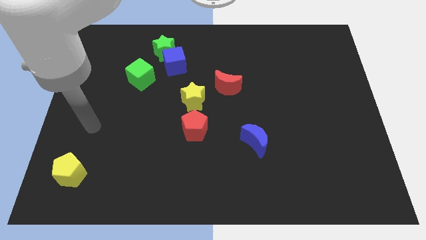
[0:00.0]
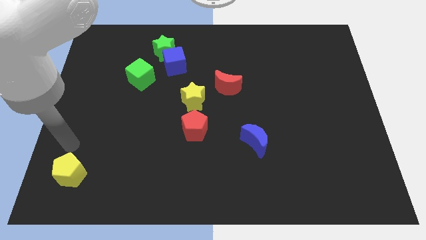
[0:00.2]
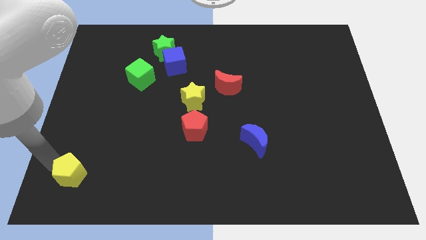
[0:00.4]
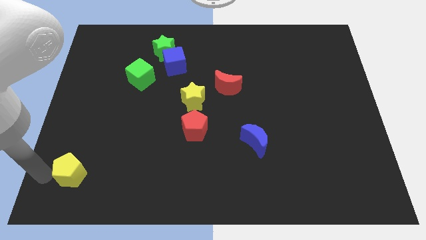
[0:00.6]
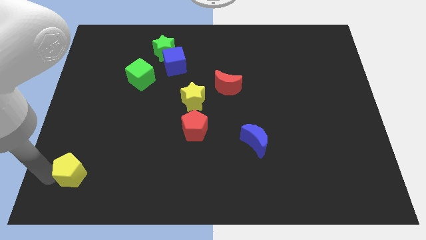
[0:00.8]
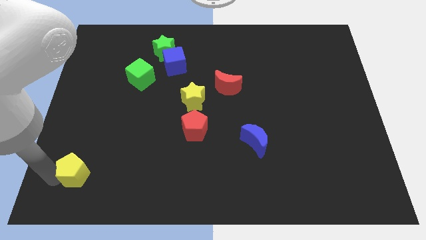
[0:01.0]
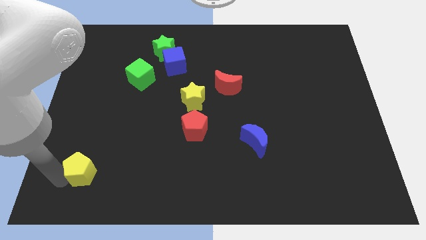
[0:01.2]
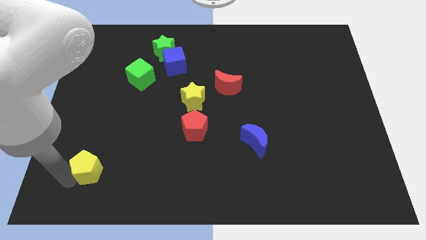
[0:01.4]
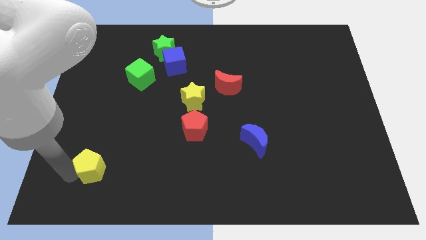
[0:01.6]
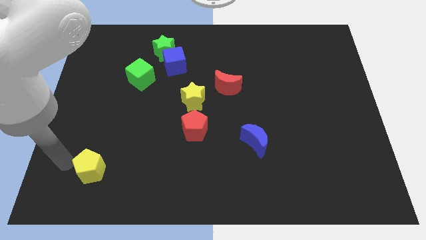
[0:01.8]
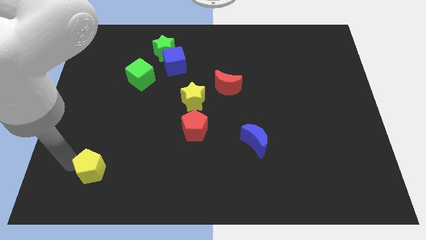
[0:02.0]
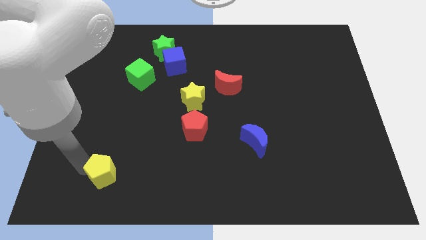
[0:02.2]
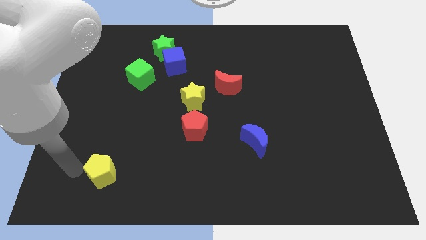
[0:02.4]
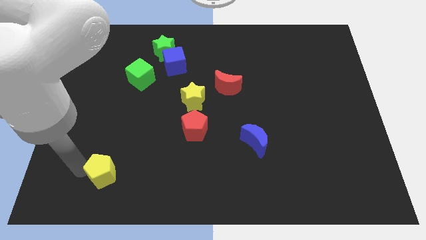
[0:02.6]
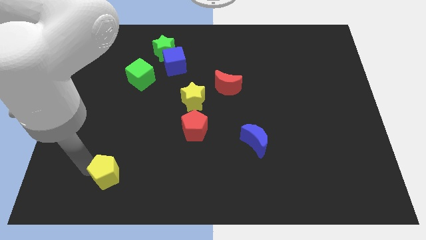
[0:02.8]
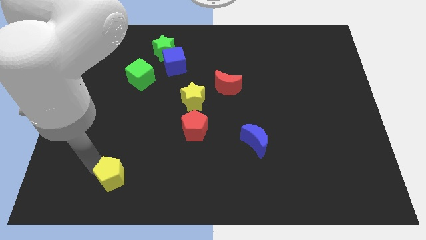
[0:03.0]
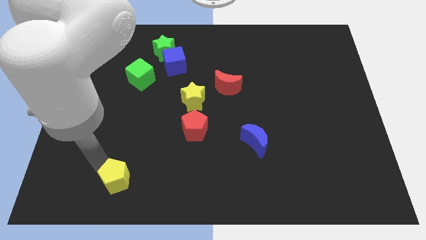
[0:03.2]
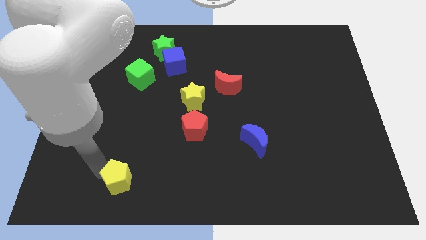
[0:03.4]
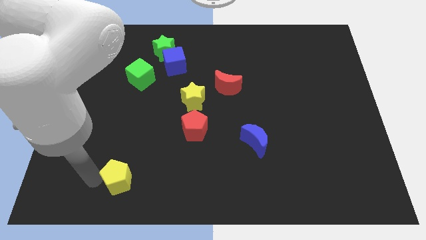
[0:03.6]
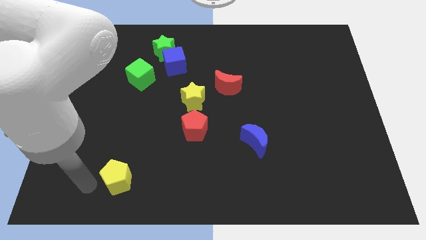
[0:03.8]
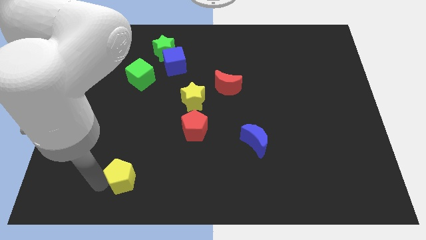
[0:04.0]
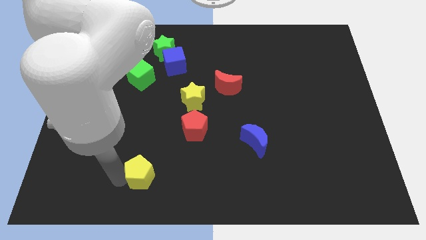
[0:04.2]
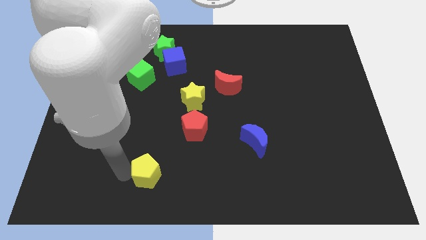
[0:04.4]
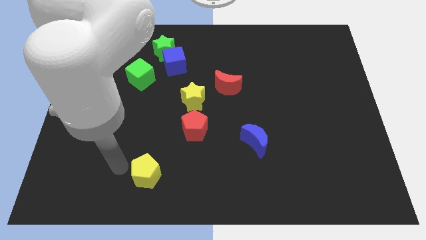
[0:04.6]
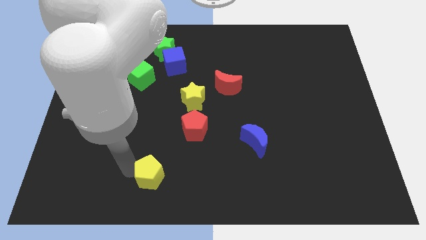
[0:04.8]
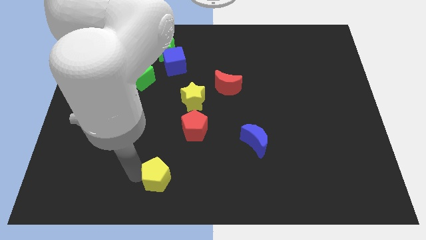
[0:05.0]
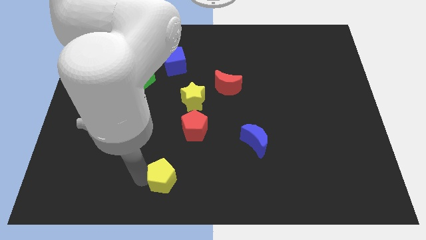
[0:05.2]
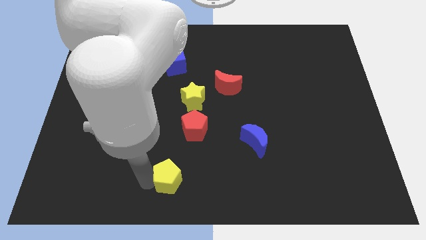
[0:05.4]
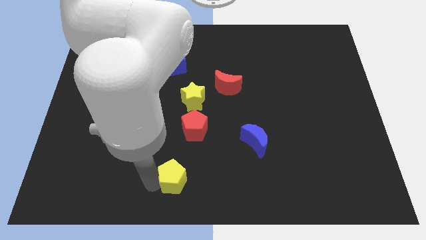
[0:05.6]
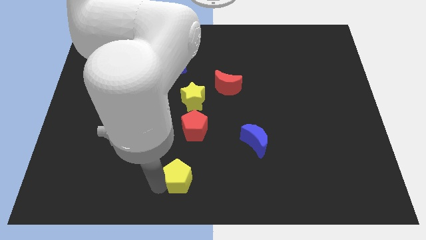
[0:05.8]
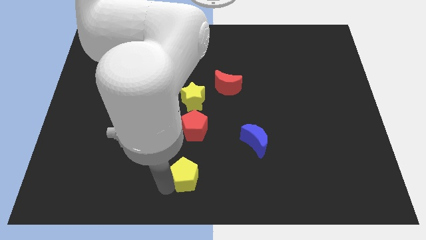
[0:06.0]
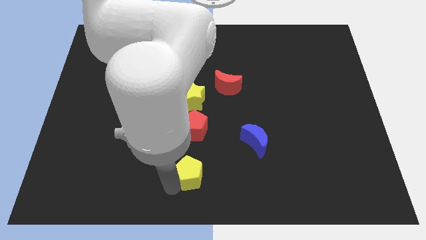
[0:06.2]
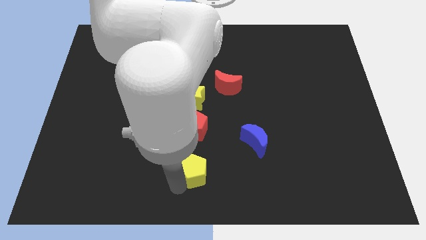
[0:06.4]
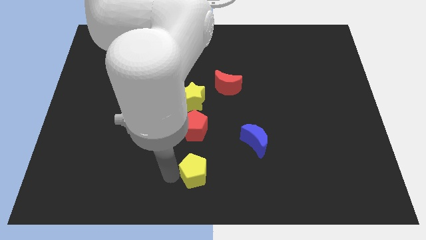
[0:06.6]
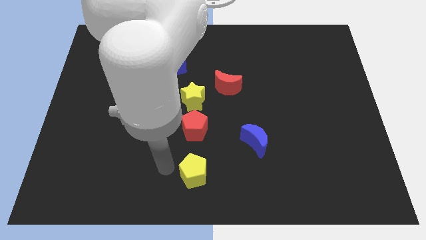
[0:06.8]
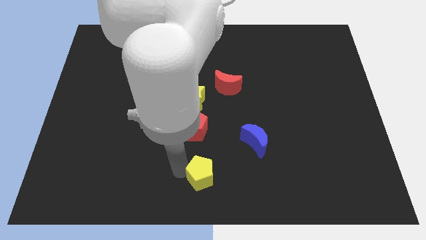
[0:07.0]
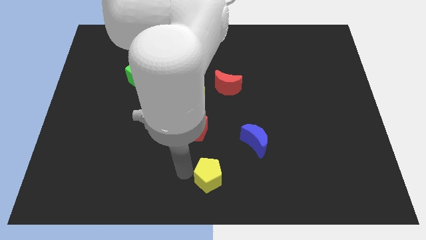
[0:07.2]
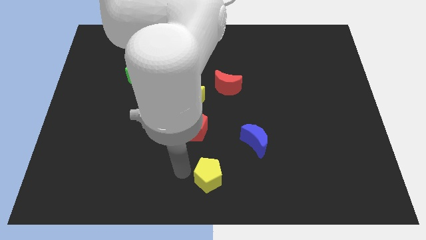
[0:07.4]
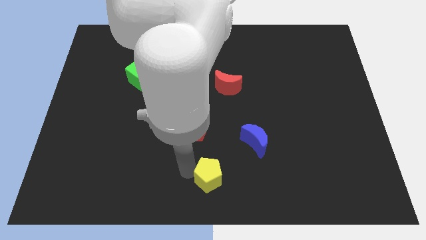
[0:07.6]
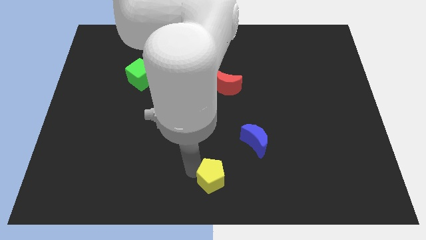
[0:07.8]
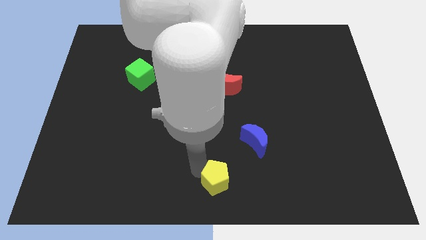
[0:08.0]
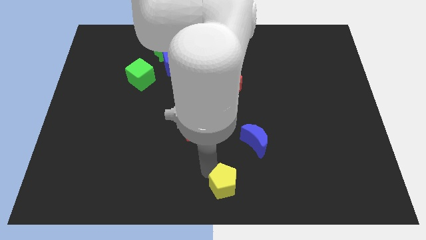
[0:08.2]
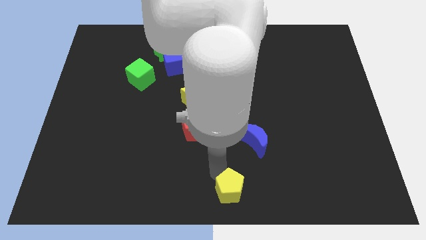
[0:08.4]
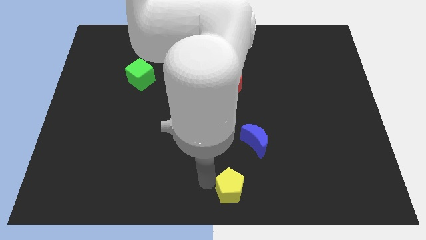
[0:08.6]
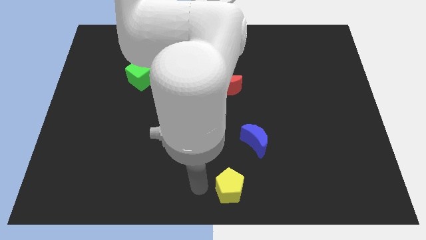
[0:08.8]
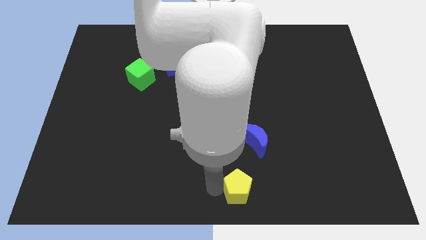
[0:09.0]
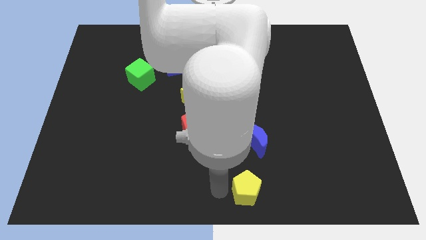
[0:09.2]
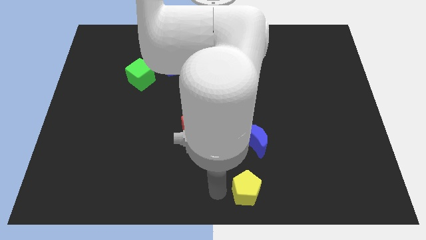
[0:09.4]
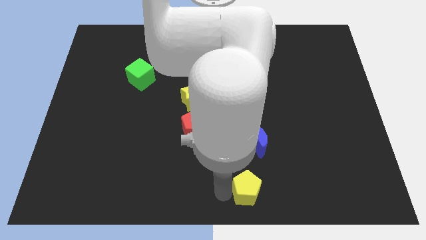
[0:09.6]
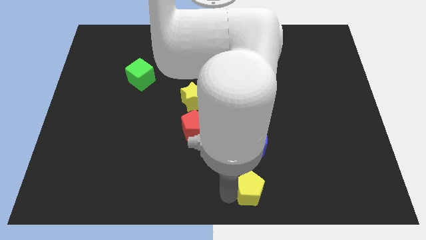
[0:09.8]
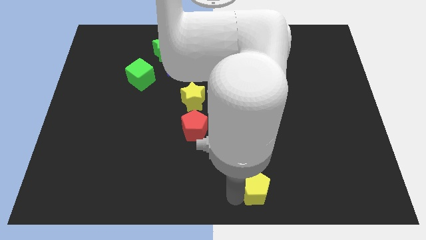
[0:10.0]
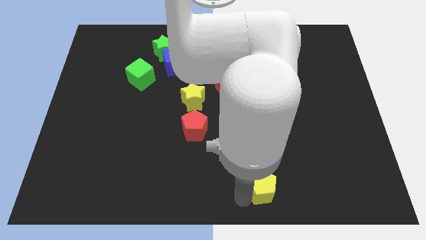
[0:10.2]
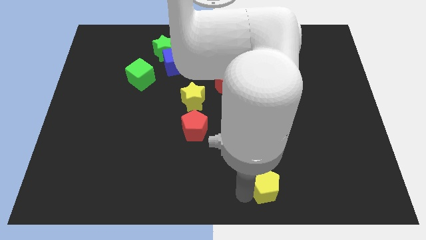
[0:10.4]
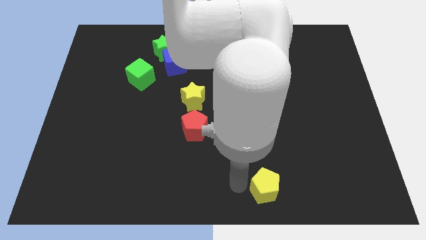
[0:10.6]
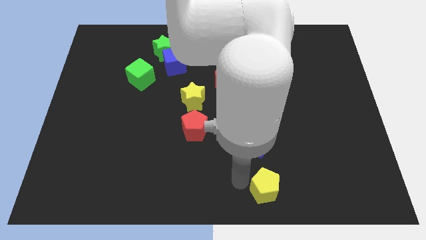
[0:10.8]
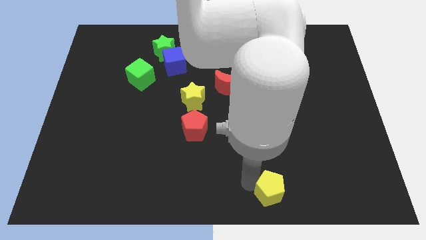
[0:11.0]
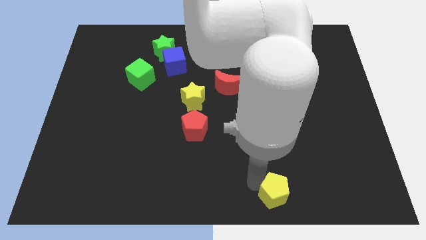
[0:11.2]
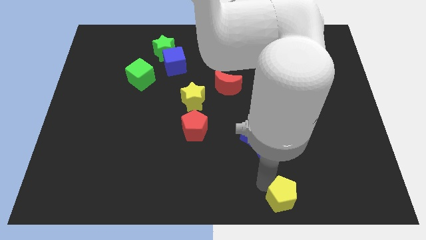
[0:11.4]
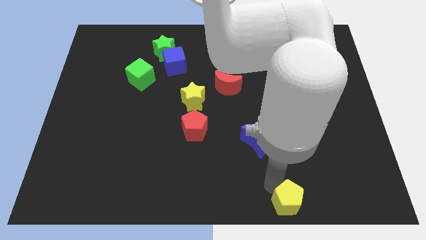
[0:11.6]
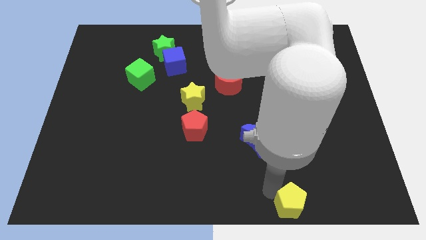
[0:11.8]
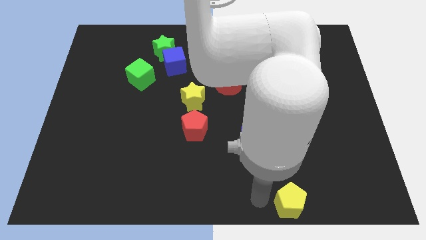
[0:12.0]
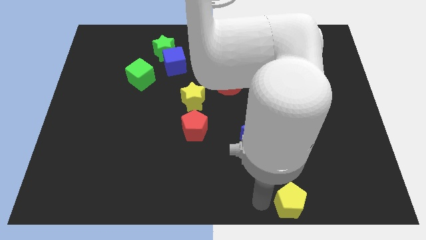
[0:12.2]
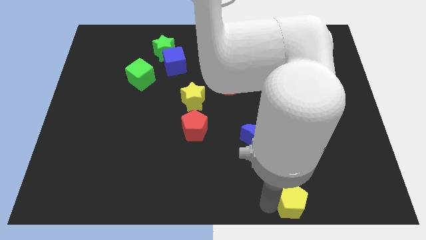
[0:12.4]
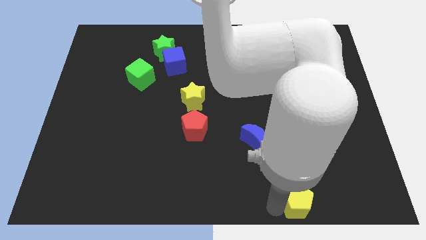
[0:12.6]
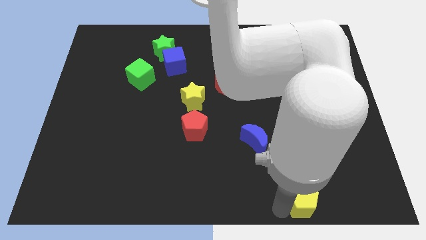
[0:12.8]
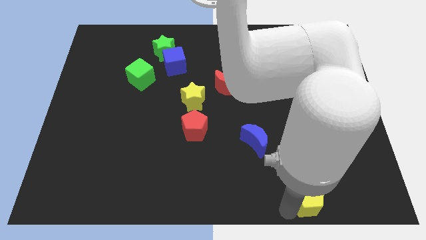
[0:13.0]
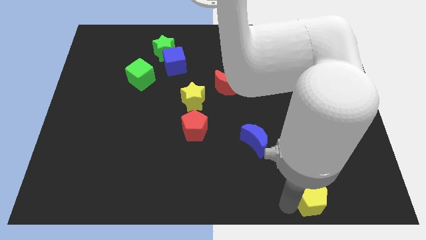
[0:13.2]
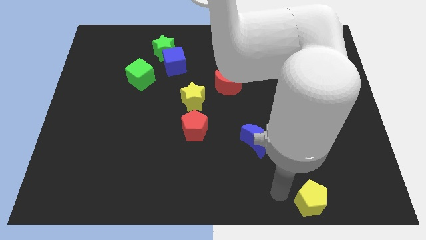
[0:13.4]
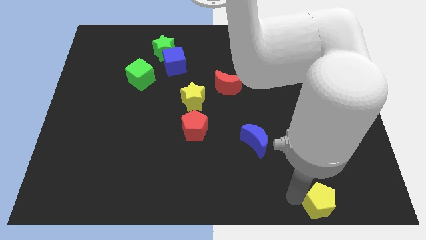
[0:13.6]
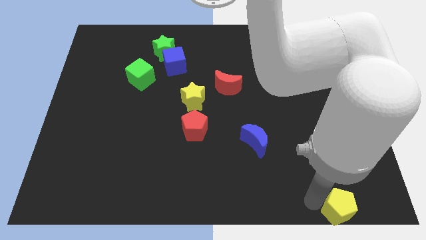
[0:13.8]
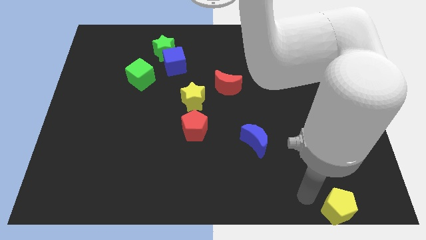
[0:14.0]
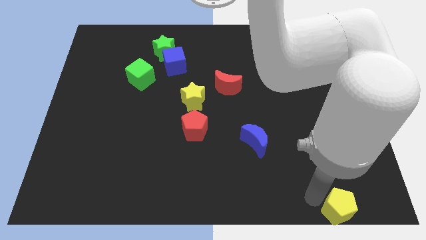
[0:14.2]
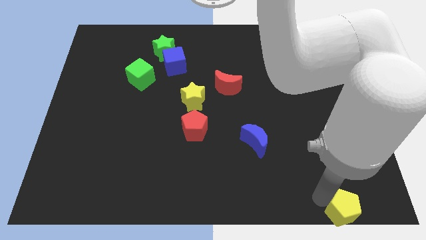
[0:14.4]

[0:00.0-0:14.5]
slide the yellow pentagon to the bottom right
